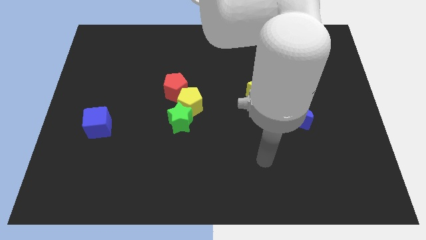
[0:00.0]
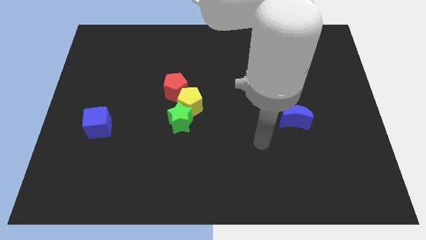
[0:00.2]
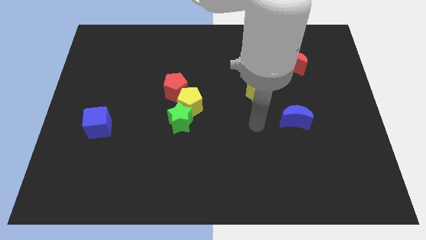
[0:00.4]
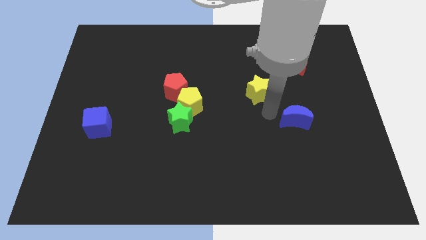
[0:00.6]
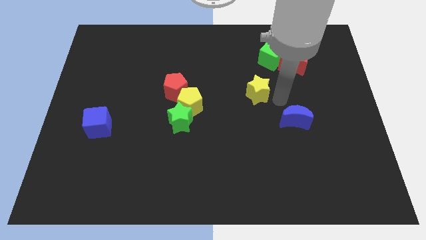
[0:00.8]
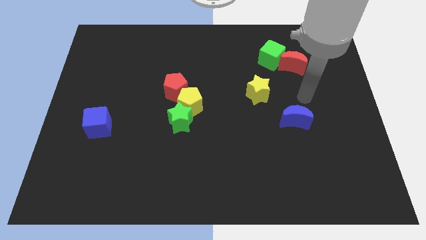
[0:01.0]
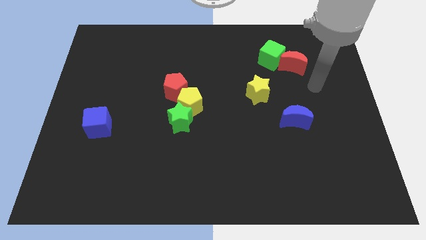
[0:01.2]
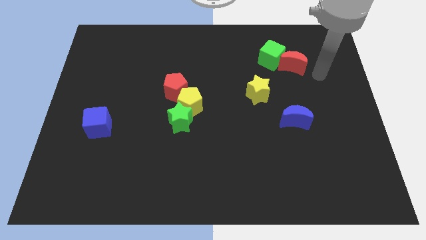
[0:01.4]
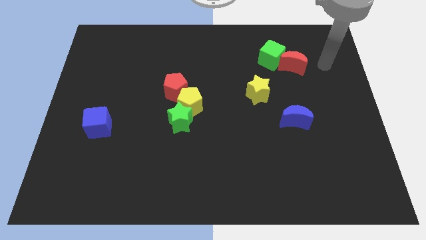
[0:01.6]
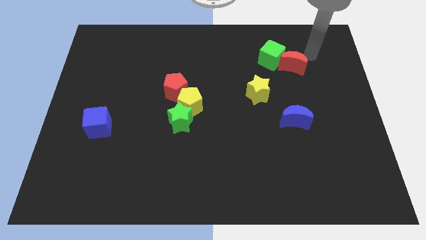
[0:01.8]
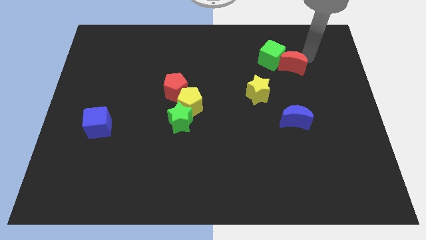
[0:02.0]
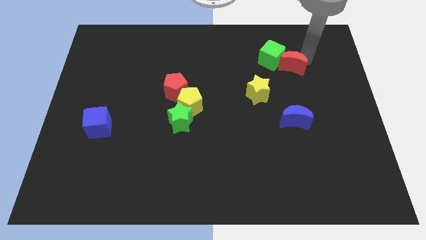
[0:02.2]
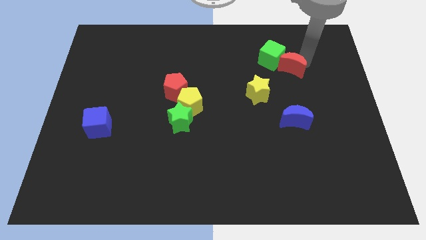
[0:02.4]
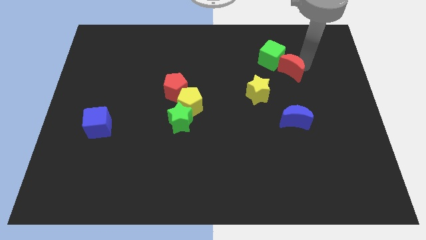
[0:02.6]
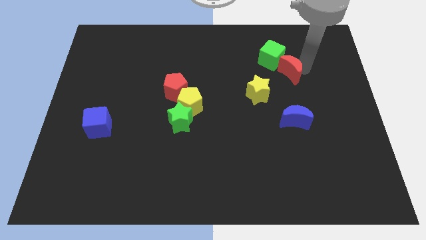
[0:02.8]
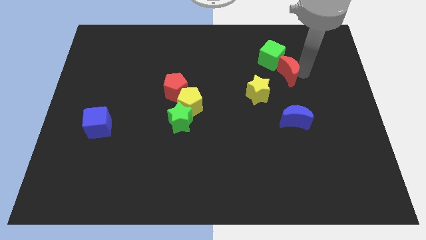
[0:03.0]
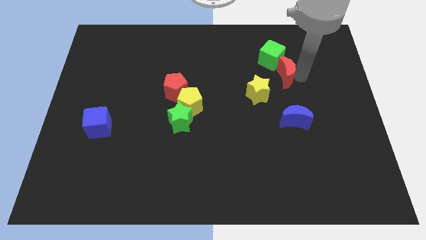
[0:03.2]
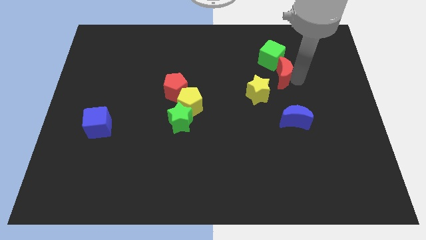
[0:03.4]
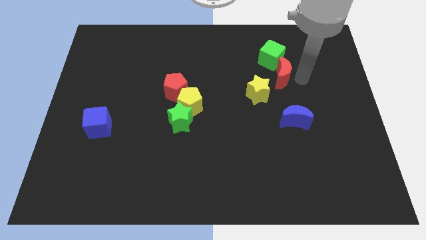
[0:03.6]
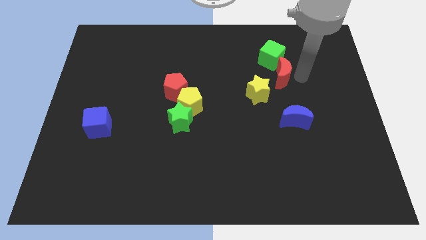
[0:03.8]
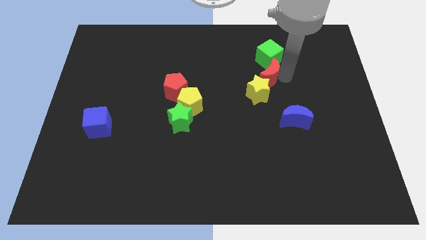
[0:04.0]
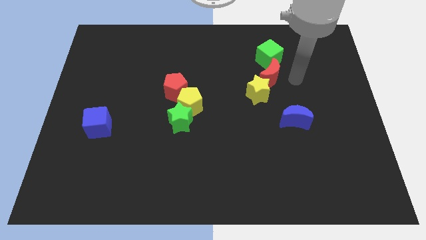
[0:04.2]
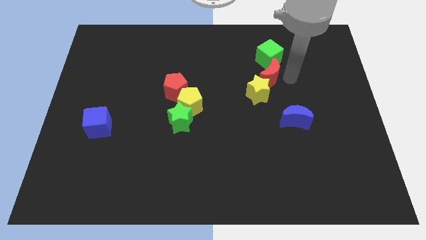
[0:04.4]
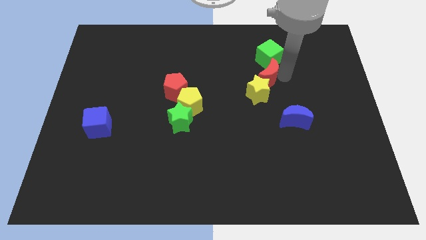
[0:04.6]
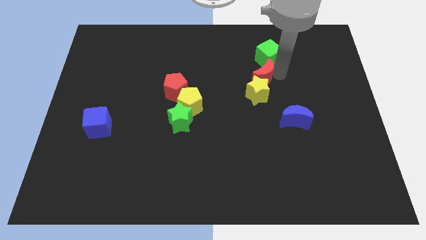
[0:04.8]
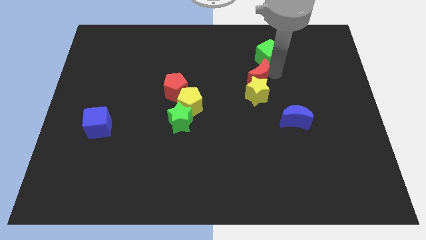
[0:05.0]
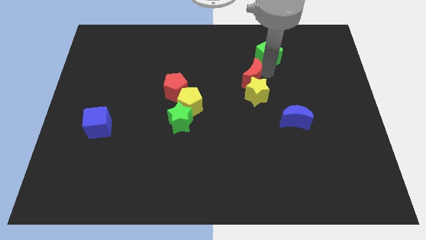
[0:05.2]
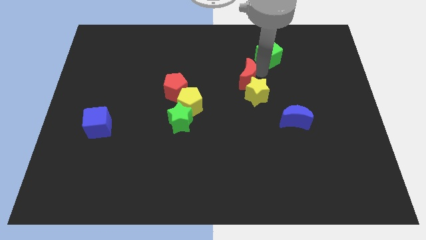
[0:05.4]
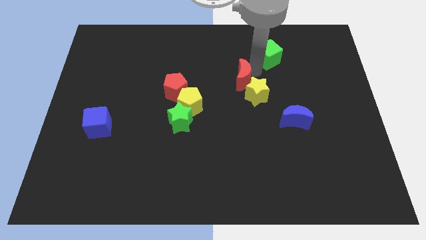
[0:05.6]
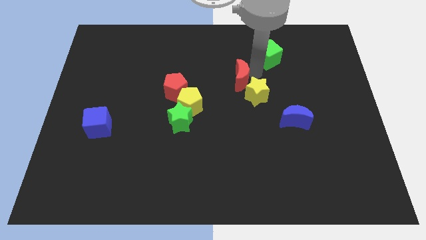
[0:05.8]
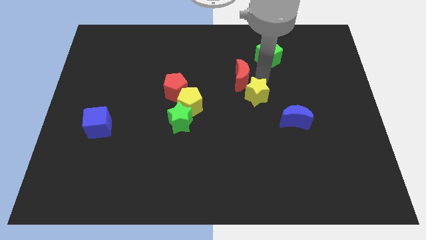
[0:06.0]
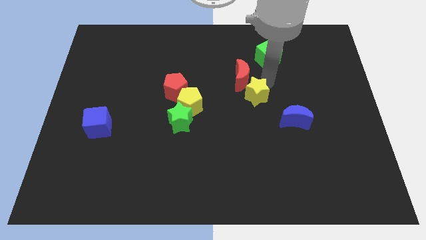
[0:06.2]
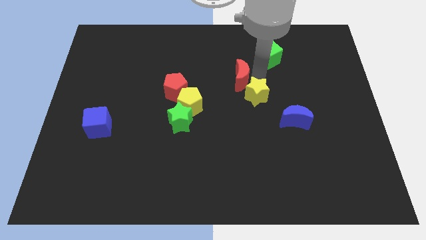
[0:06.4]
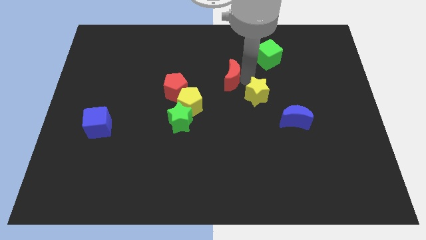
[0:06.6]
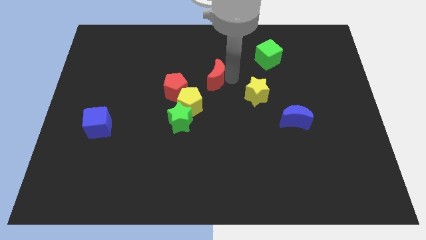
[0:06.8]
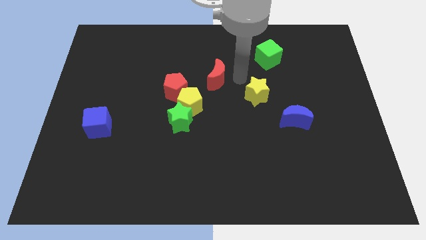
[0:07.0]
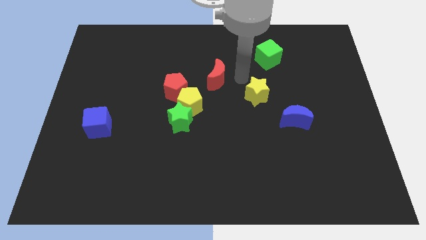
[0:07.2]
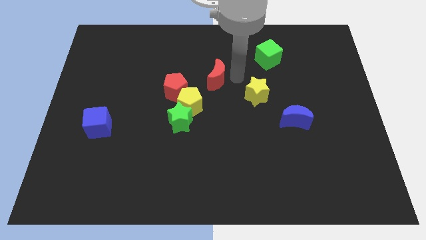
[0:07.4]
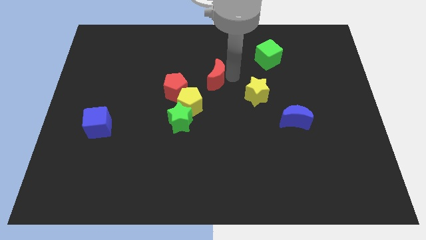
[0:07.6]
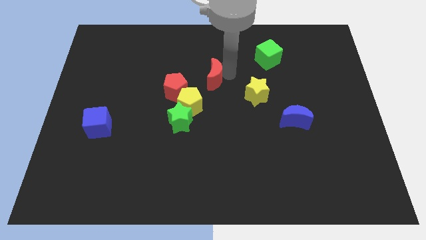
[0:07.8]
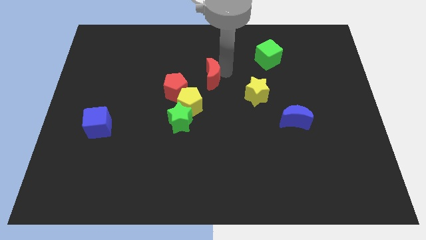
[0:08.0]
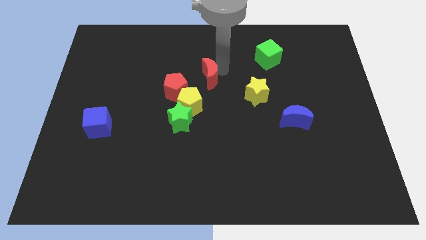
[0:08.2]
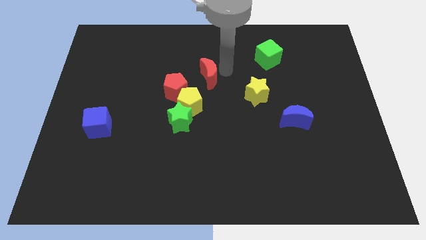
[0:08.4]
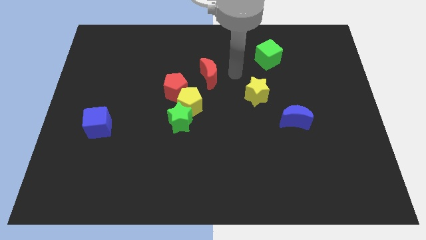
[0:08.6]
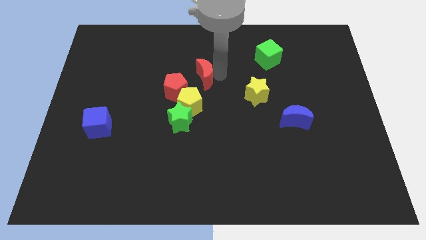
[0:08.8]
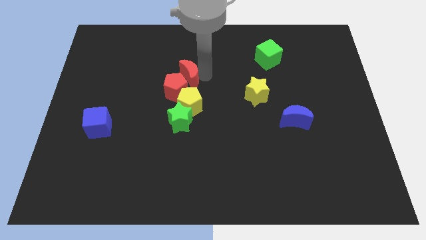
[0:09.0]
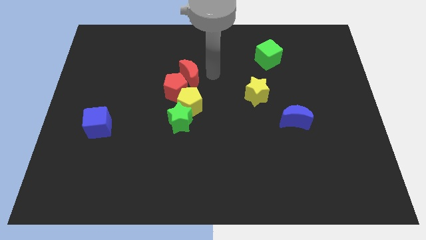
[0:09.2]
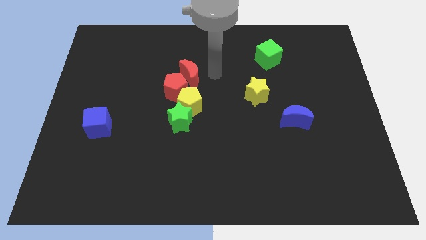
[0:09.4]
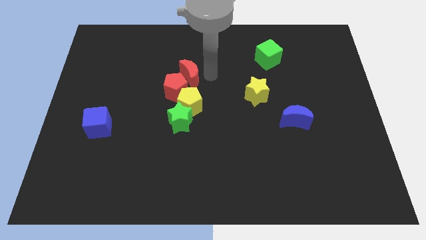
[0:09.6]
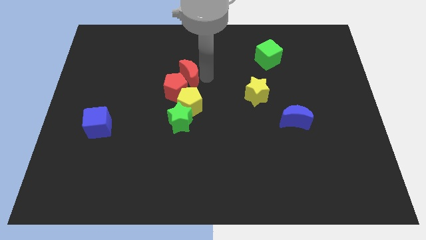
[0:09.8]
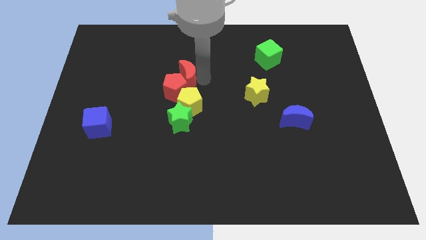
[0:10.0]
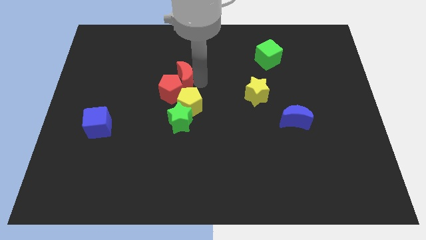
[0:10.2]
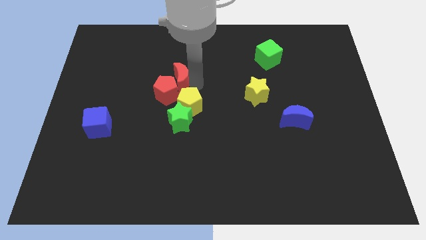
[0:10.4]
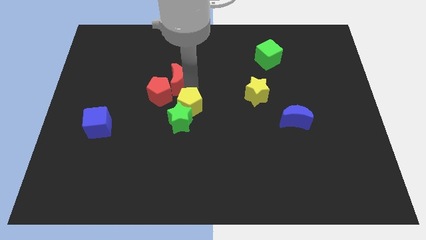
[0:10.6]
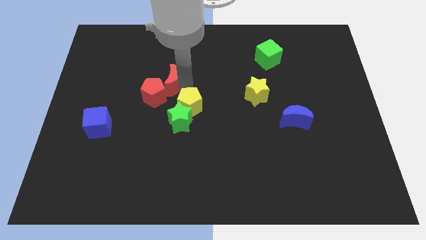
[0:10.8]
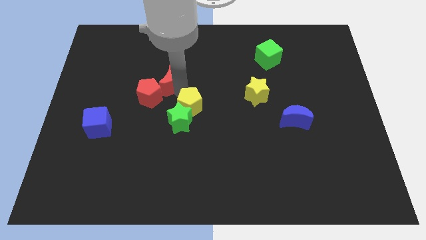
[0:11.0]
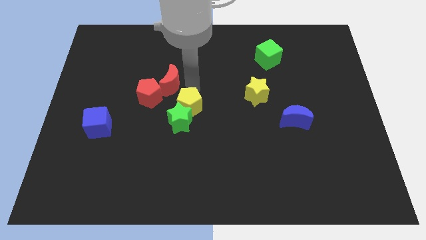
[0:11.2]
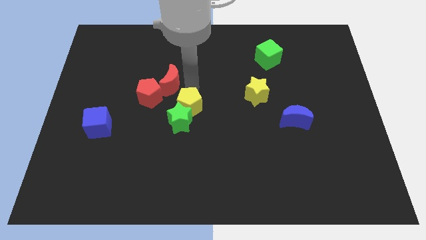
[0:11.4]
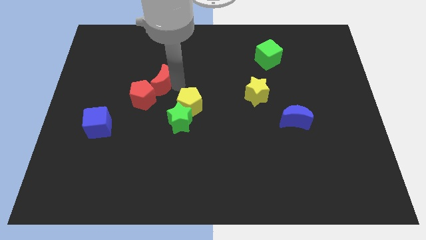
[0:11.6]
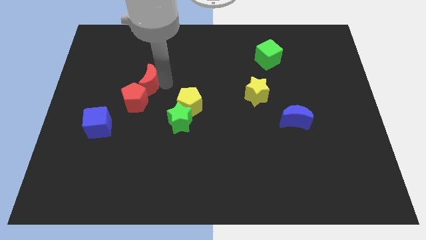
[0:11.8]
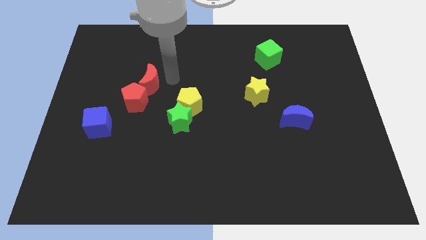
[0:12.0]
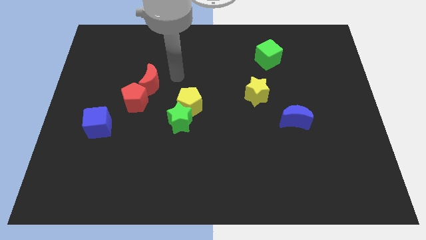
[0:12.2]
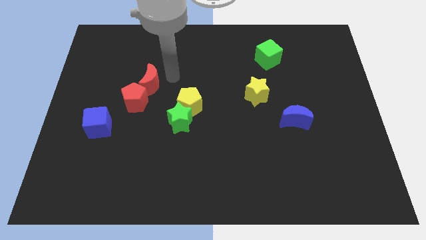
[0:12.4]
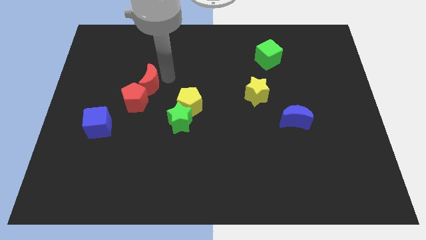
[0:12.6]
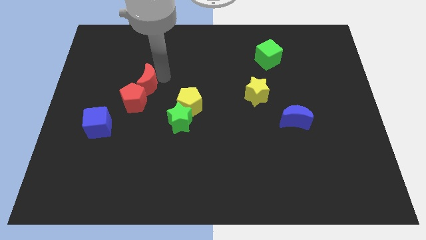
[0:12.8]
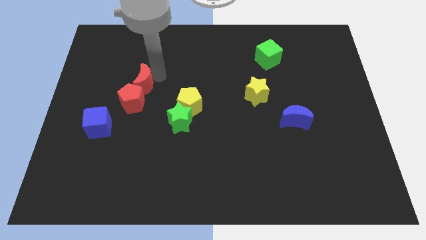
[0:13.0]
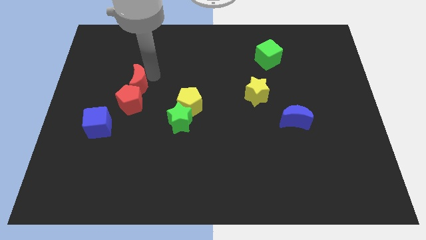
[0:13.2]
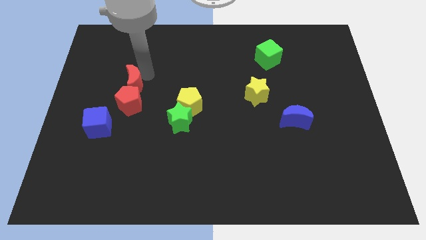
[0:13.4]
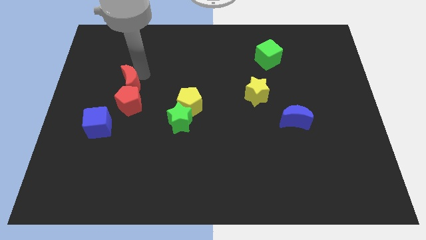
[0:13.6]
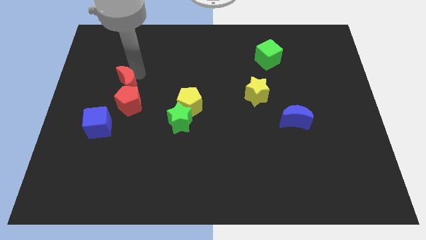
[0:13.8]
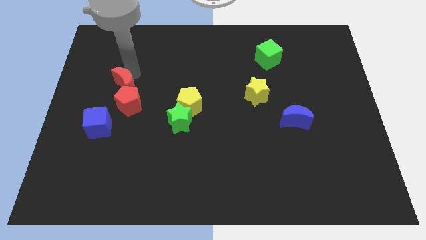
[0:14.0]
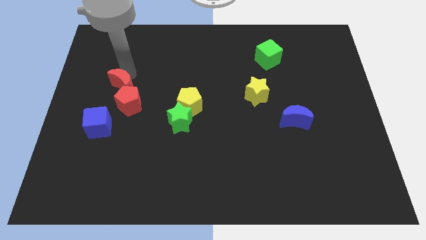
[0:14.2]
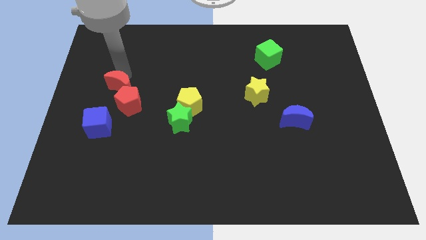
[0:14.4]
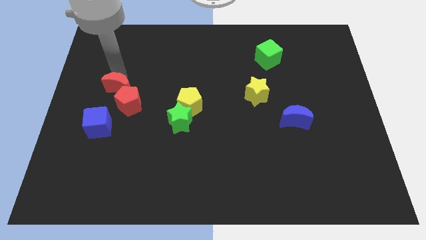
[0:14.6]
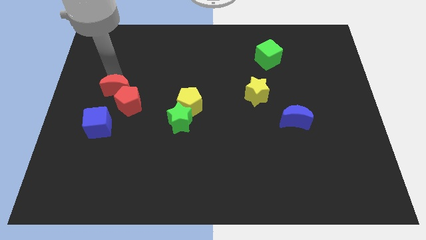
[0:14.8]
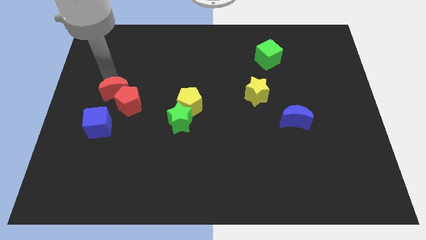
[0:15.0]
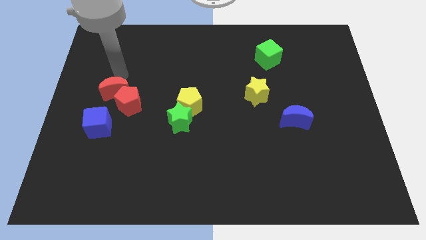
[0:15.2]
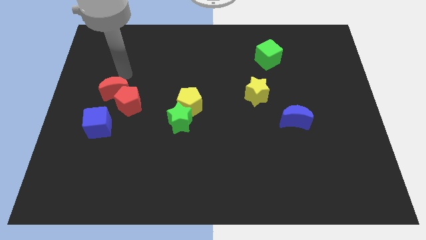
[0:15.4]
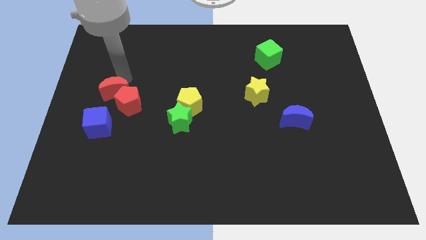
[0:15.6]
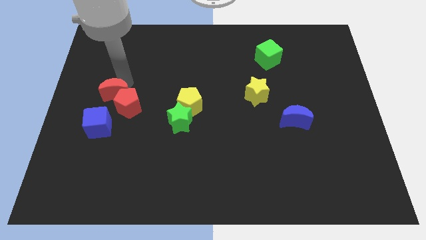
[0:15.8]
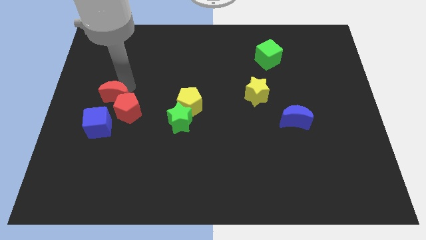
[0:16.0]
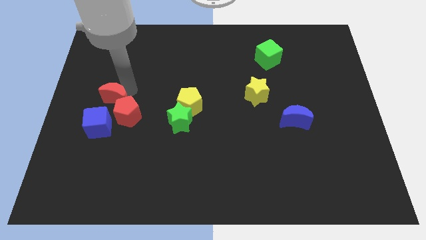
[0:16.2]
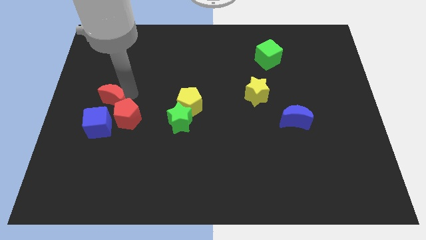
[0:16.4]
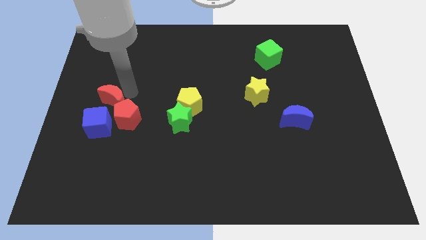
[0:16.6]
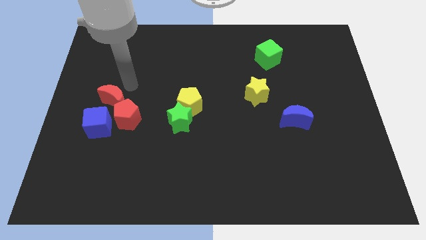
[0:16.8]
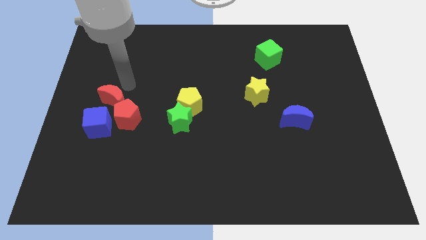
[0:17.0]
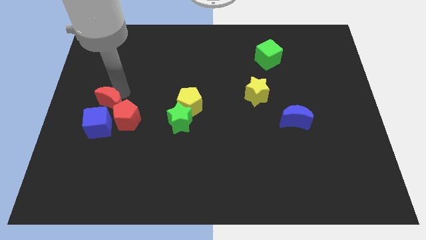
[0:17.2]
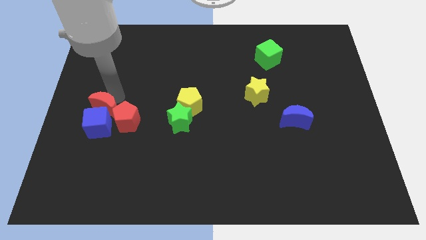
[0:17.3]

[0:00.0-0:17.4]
put the red moon towards the blue cube
